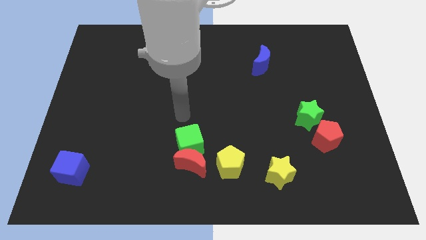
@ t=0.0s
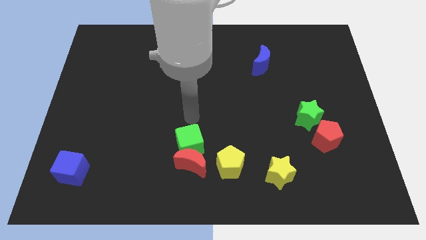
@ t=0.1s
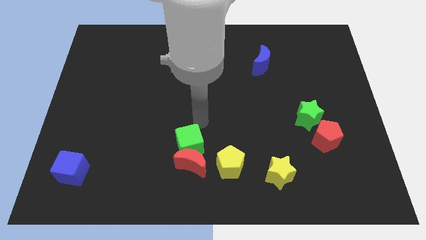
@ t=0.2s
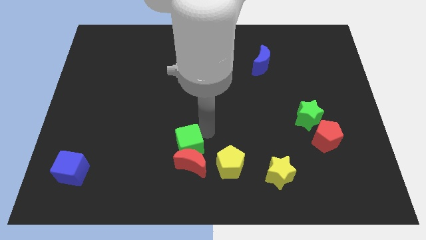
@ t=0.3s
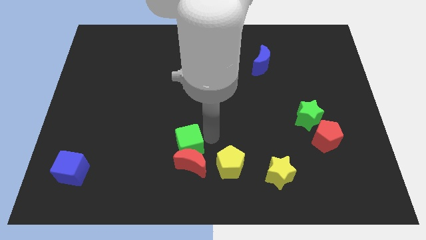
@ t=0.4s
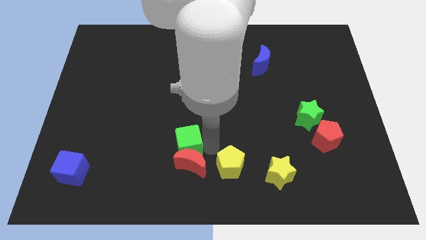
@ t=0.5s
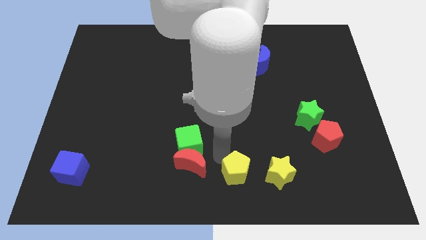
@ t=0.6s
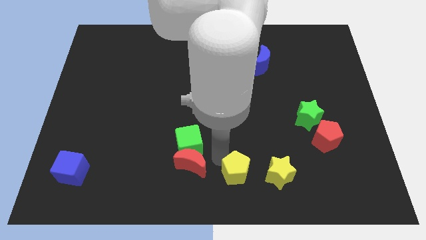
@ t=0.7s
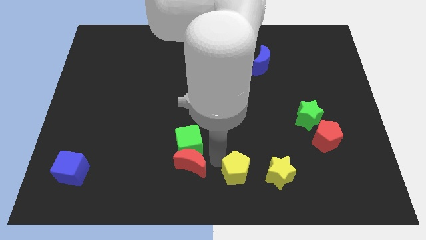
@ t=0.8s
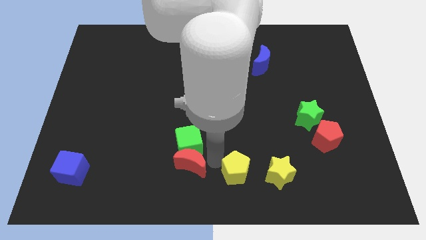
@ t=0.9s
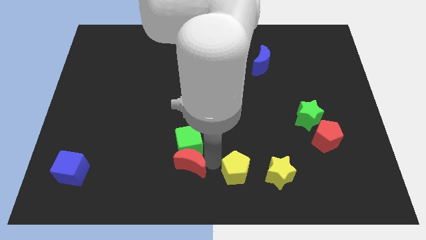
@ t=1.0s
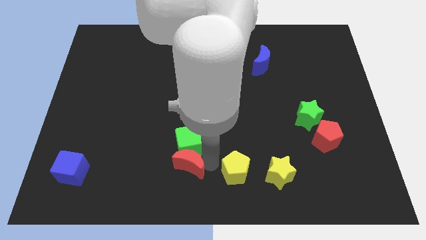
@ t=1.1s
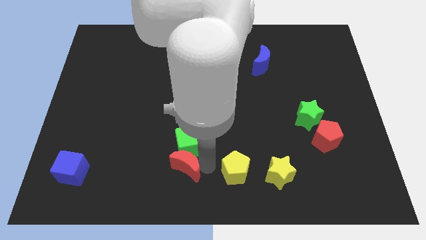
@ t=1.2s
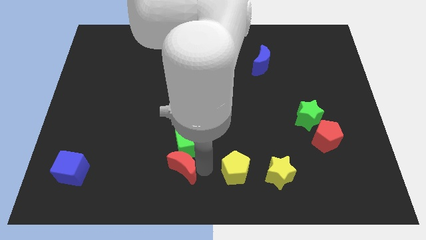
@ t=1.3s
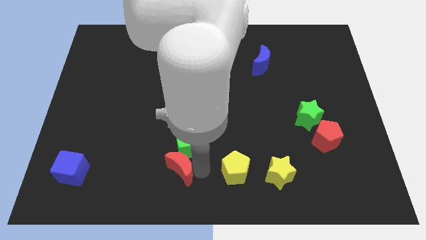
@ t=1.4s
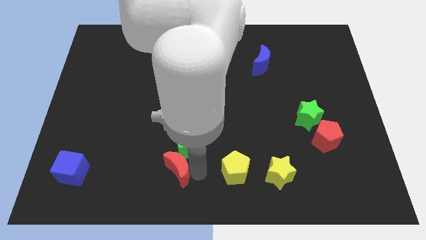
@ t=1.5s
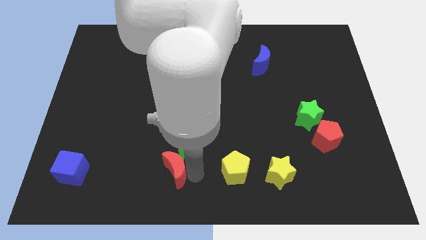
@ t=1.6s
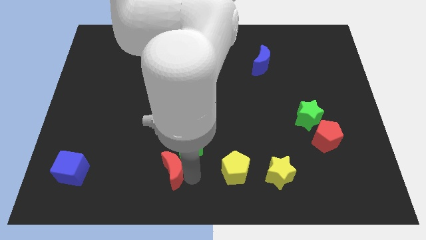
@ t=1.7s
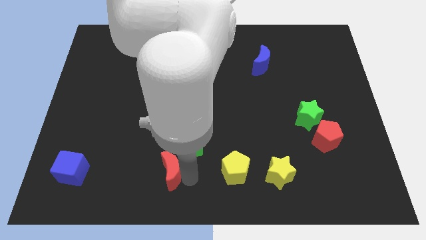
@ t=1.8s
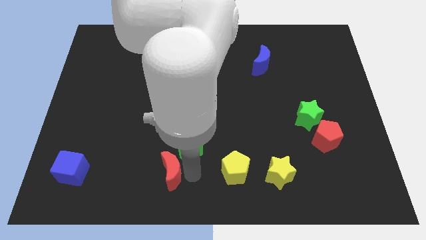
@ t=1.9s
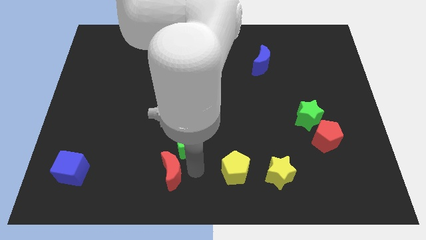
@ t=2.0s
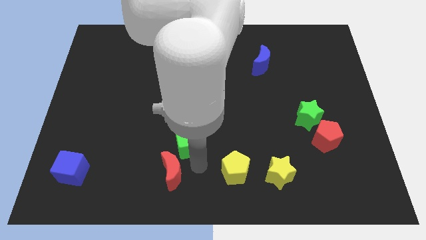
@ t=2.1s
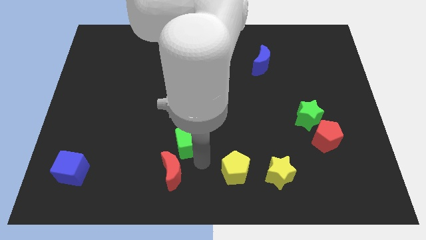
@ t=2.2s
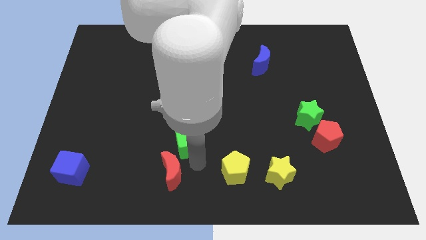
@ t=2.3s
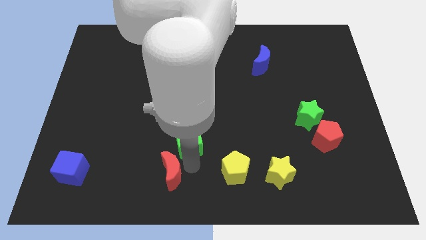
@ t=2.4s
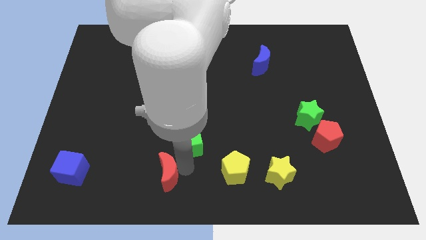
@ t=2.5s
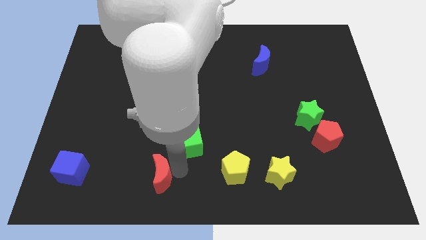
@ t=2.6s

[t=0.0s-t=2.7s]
move the red moon away from the green cube and yellow pentagon

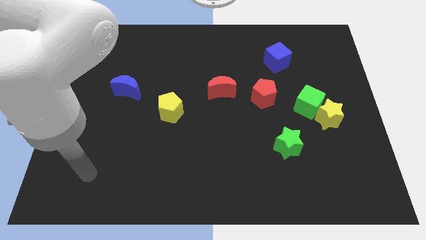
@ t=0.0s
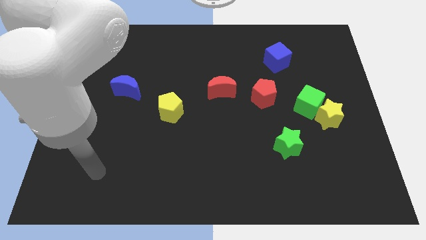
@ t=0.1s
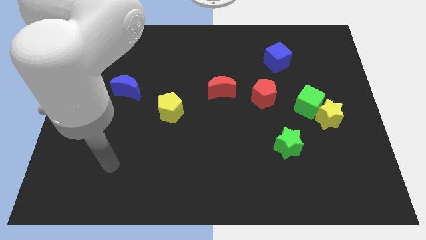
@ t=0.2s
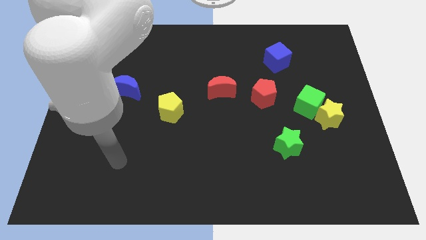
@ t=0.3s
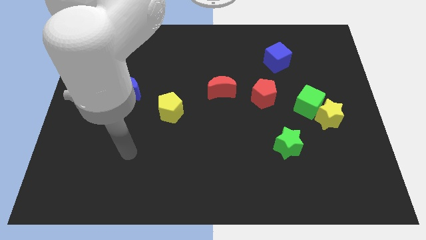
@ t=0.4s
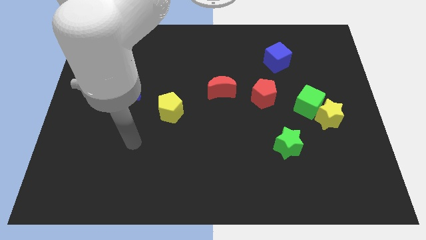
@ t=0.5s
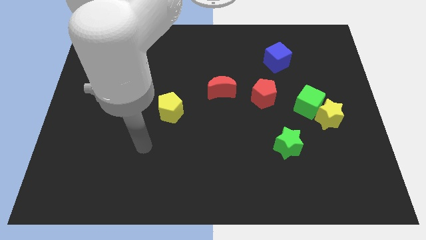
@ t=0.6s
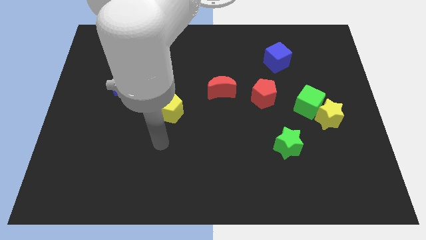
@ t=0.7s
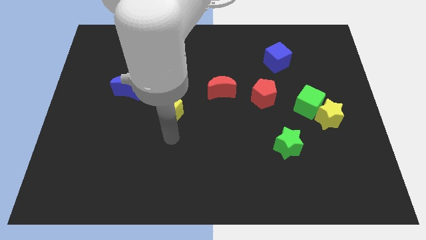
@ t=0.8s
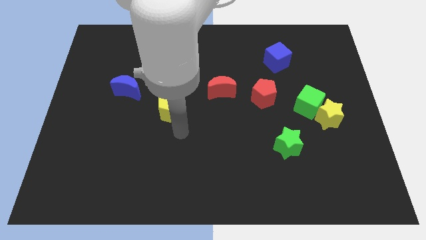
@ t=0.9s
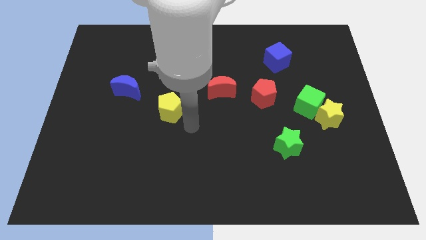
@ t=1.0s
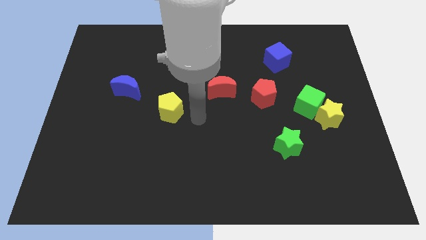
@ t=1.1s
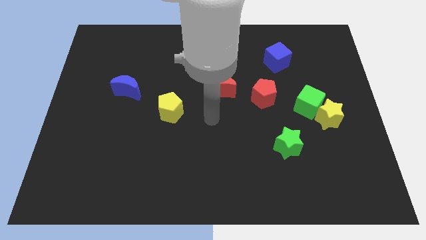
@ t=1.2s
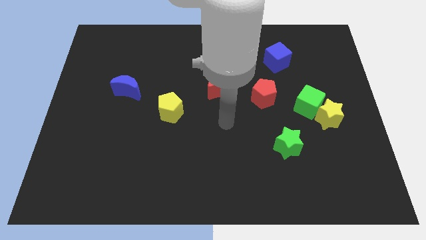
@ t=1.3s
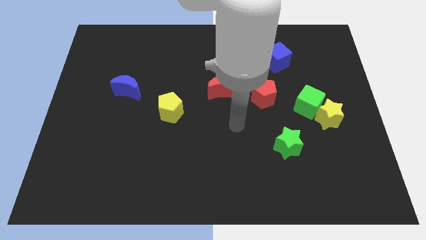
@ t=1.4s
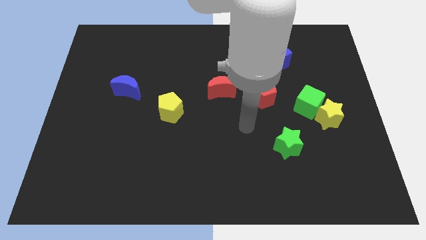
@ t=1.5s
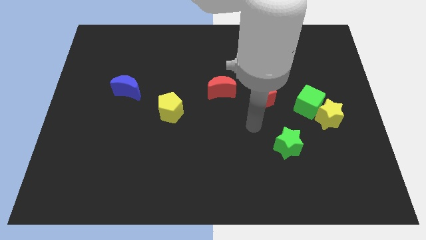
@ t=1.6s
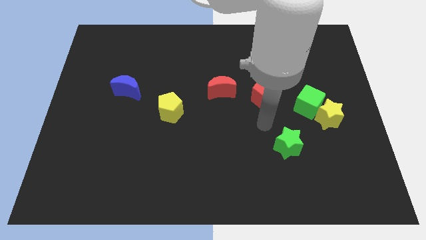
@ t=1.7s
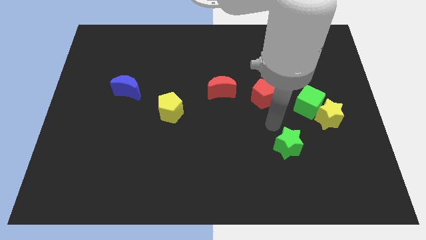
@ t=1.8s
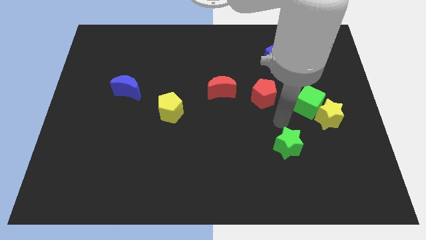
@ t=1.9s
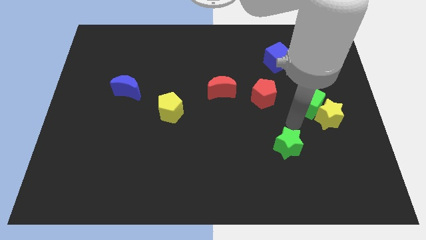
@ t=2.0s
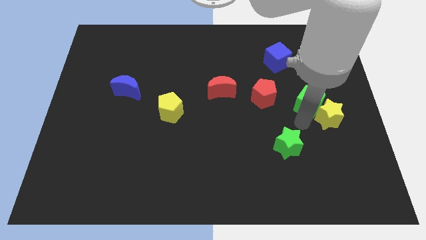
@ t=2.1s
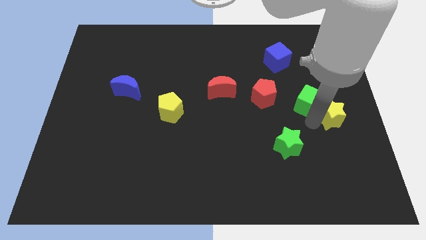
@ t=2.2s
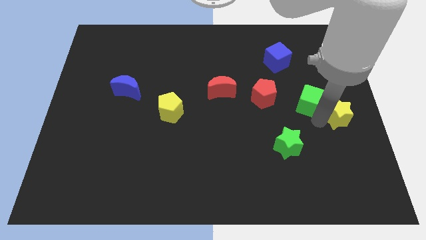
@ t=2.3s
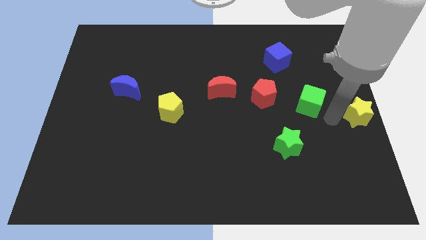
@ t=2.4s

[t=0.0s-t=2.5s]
move the green cube away from the yellow star

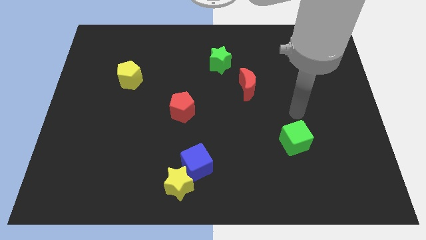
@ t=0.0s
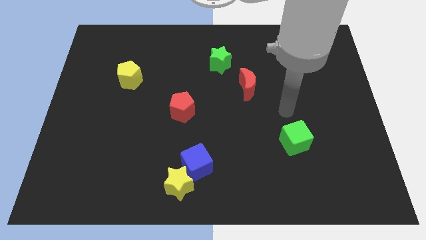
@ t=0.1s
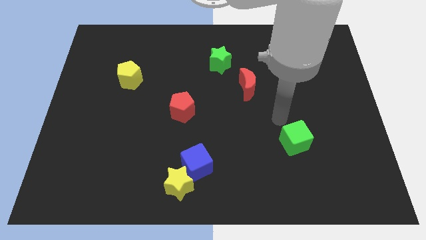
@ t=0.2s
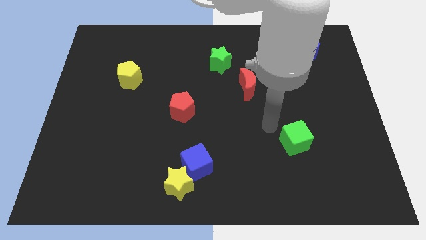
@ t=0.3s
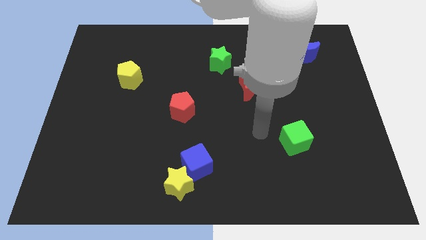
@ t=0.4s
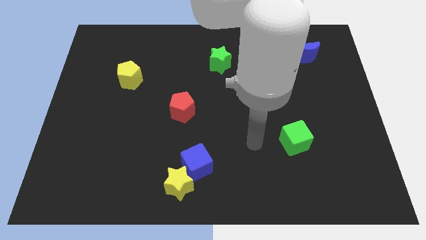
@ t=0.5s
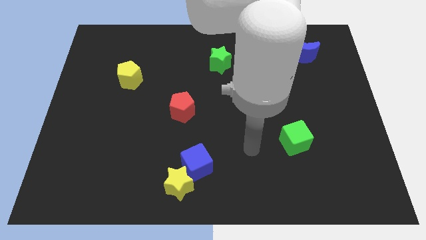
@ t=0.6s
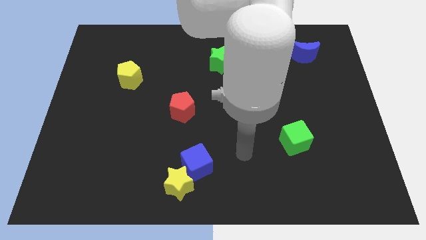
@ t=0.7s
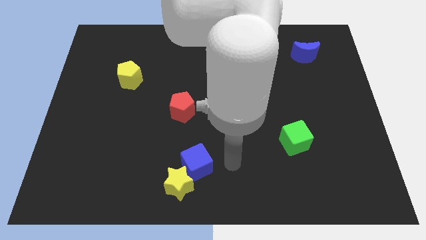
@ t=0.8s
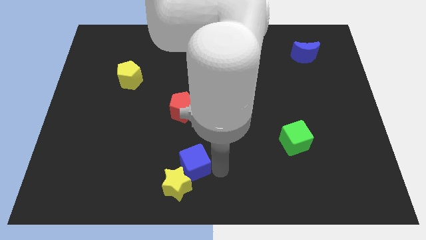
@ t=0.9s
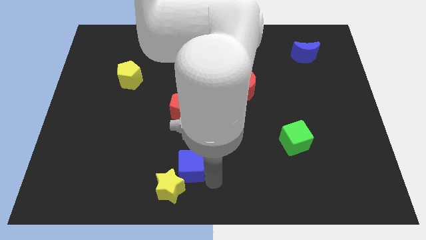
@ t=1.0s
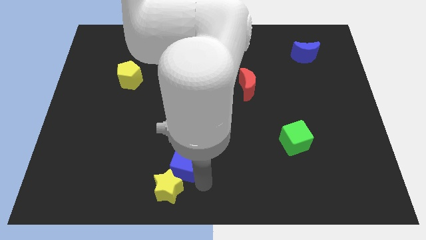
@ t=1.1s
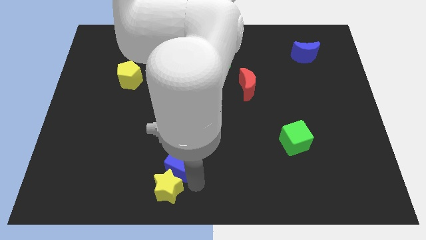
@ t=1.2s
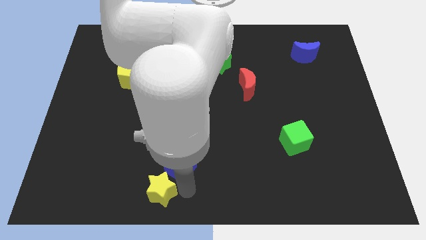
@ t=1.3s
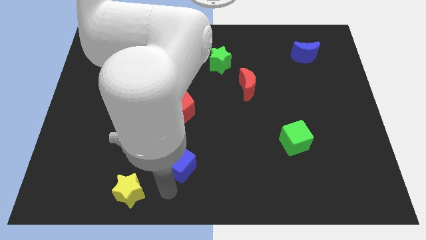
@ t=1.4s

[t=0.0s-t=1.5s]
separate the blue cube from the yellow star

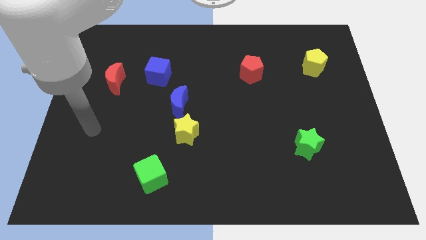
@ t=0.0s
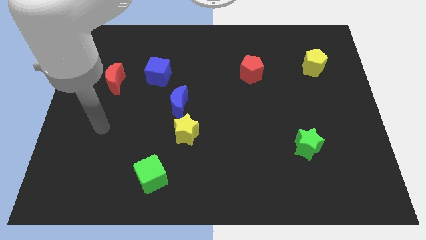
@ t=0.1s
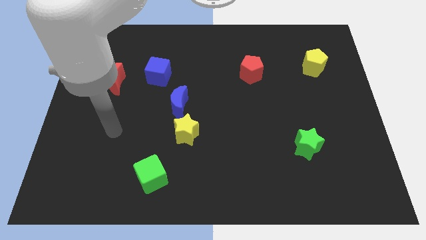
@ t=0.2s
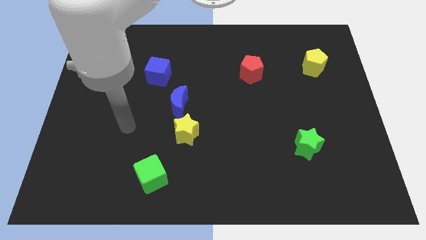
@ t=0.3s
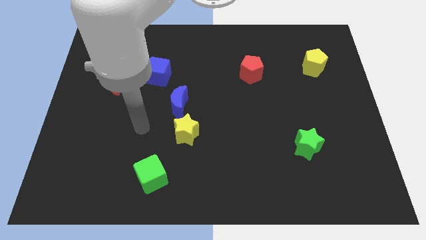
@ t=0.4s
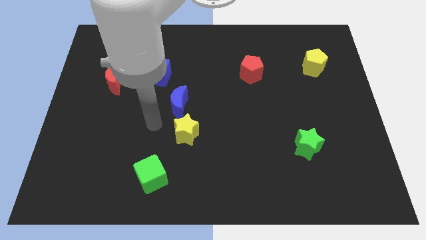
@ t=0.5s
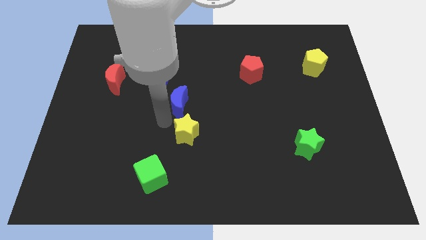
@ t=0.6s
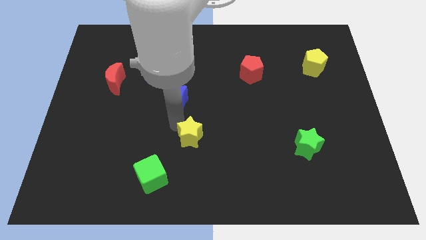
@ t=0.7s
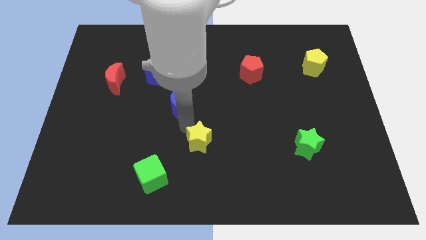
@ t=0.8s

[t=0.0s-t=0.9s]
pull the blue moon apart from the yellow star

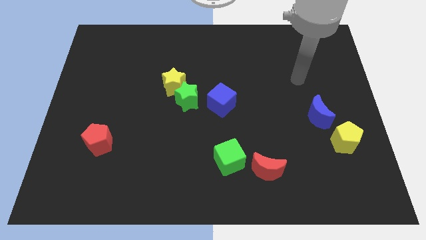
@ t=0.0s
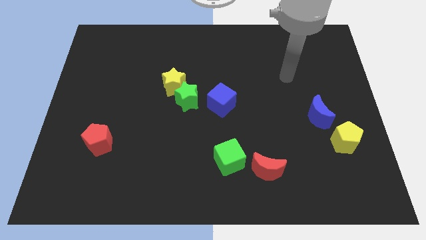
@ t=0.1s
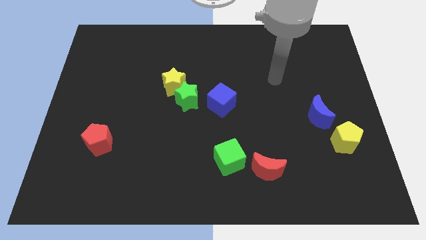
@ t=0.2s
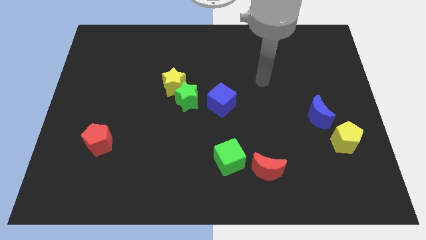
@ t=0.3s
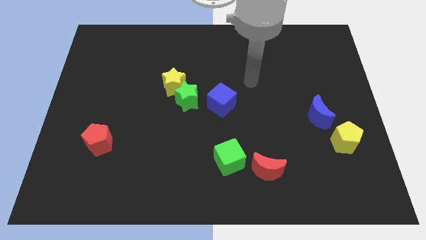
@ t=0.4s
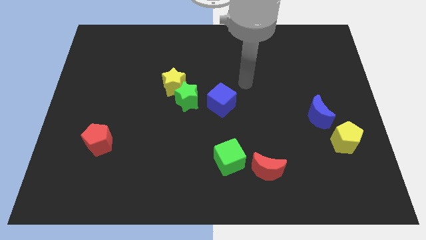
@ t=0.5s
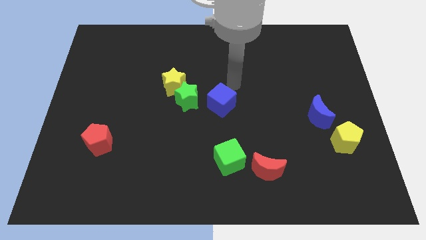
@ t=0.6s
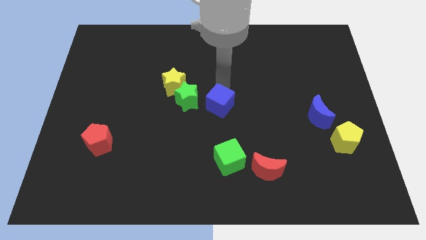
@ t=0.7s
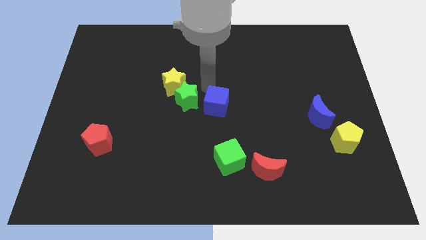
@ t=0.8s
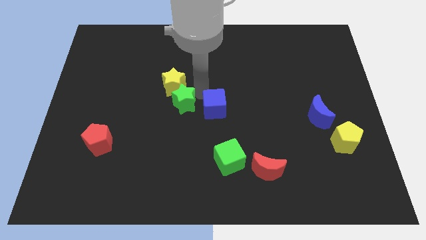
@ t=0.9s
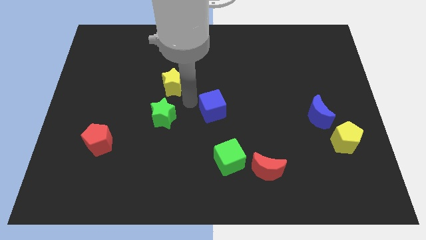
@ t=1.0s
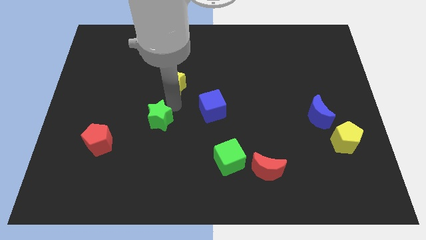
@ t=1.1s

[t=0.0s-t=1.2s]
pull the yellow star apart from the green star

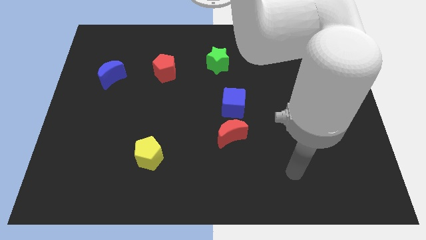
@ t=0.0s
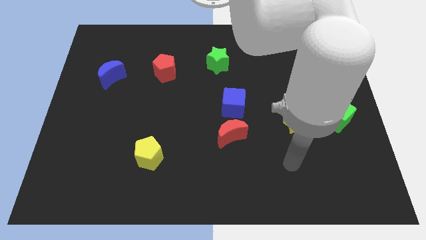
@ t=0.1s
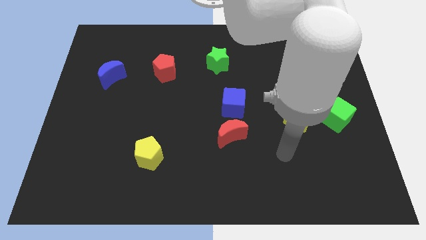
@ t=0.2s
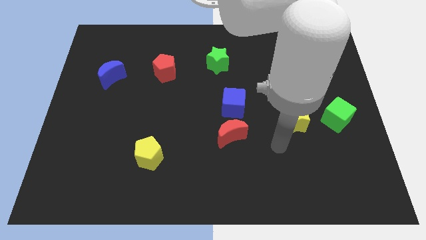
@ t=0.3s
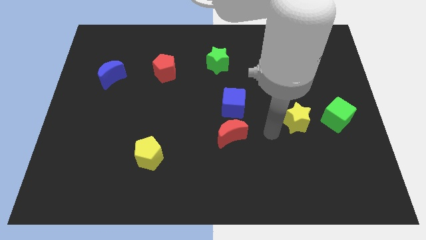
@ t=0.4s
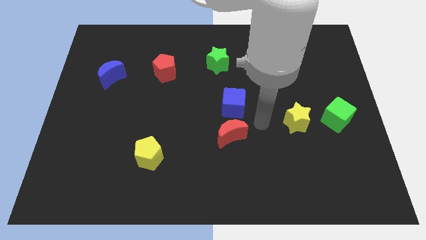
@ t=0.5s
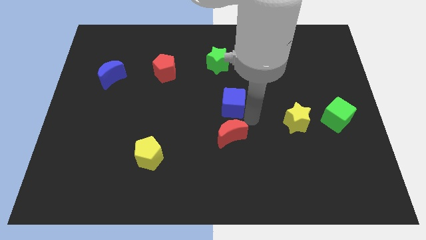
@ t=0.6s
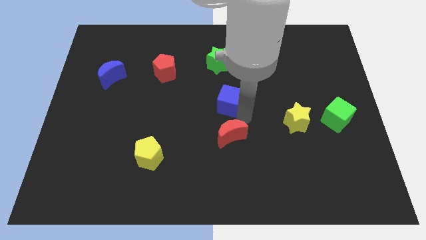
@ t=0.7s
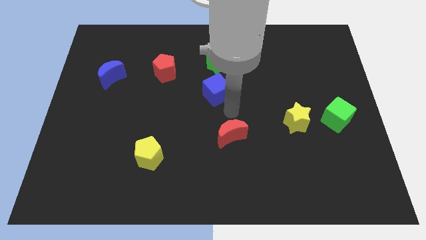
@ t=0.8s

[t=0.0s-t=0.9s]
pull the red moon apart from the blue cube
